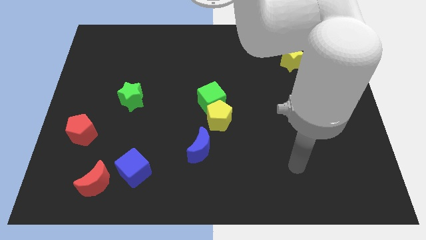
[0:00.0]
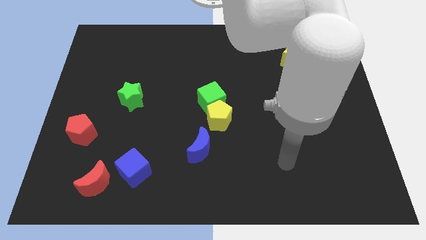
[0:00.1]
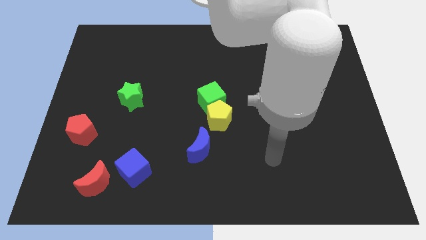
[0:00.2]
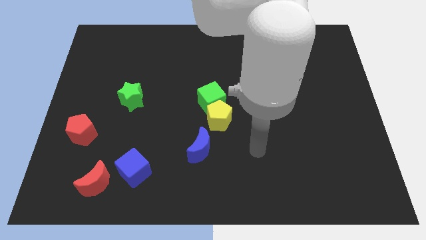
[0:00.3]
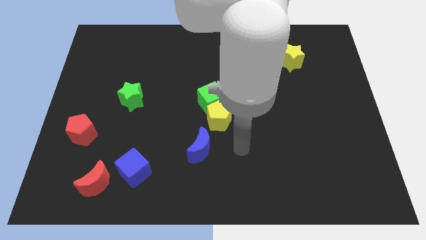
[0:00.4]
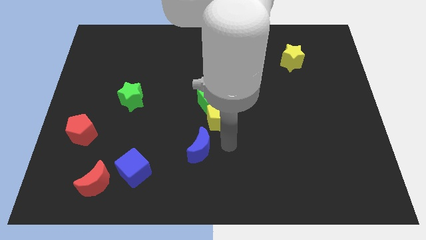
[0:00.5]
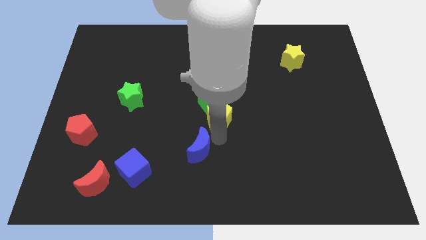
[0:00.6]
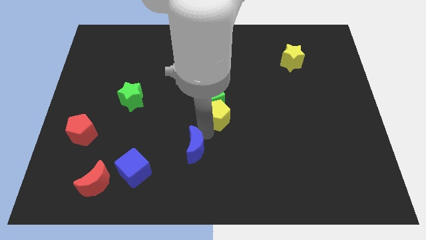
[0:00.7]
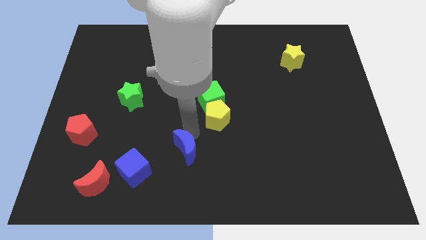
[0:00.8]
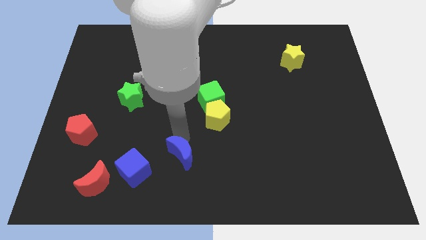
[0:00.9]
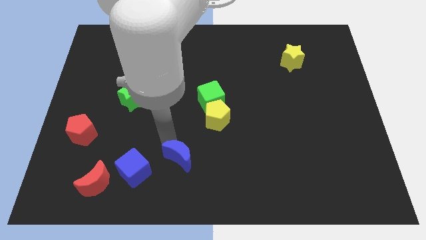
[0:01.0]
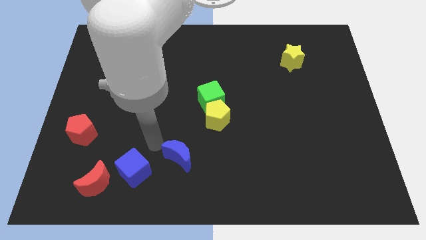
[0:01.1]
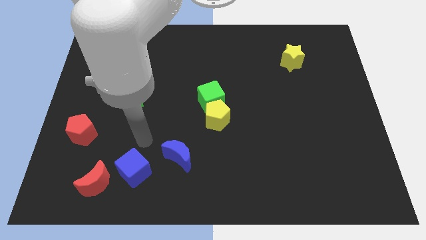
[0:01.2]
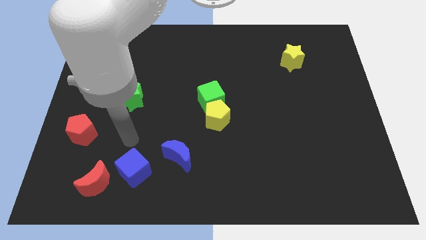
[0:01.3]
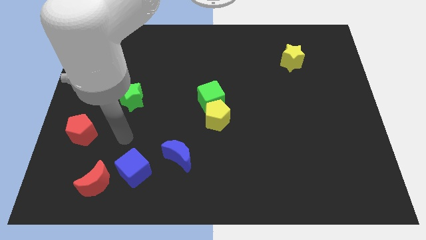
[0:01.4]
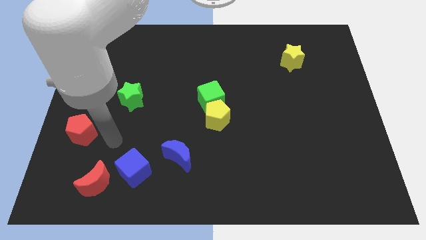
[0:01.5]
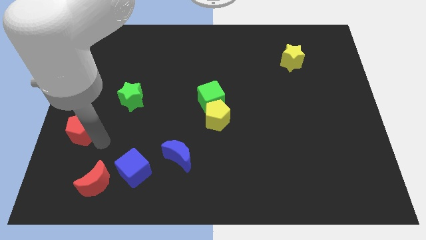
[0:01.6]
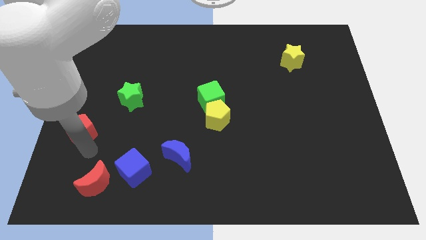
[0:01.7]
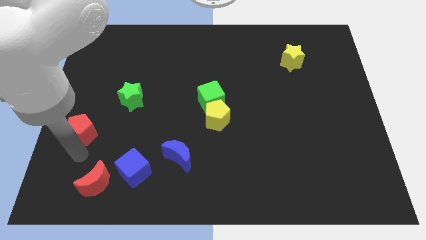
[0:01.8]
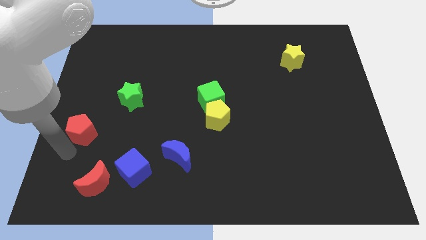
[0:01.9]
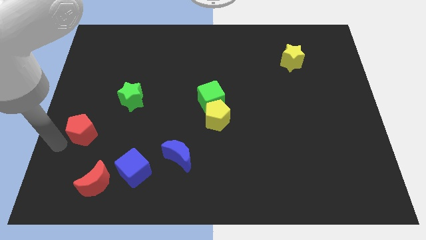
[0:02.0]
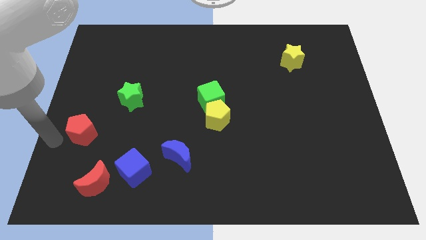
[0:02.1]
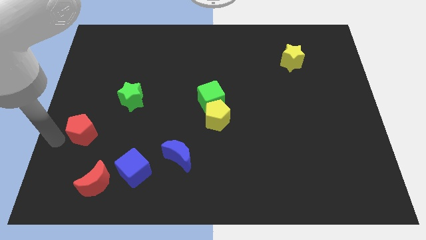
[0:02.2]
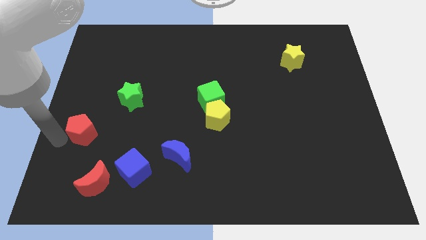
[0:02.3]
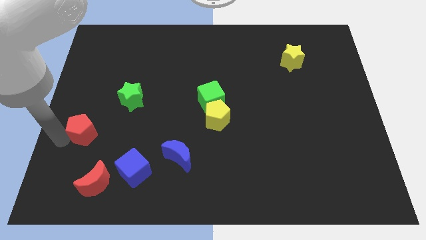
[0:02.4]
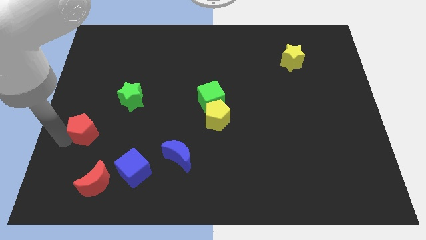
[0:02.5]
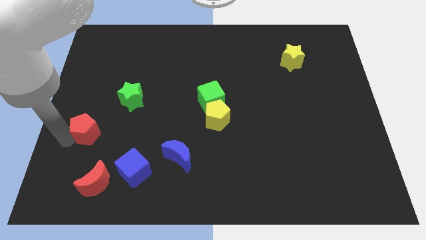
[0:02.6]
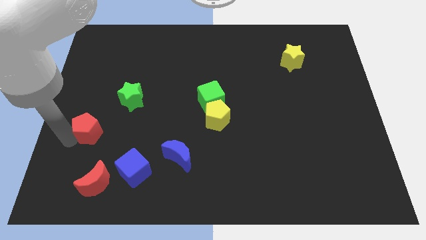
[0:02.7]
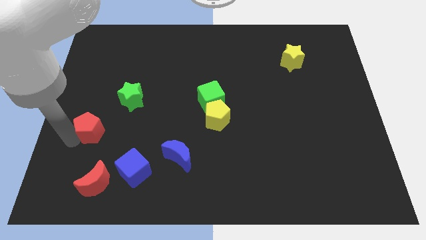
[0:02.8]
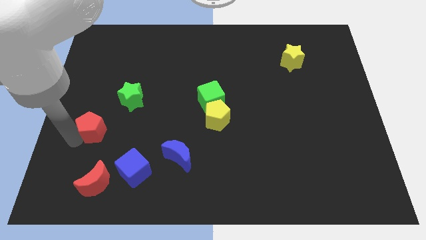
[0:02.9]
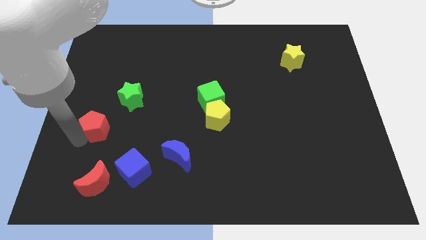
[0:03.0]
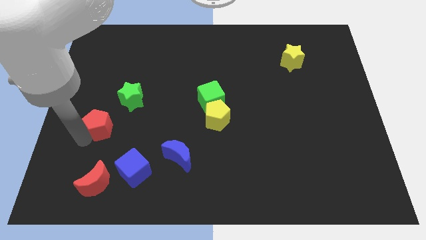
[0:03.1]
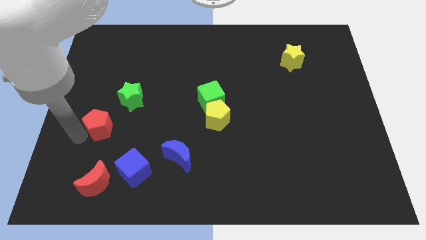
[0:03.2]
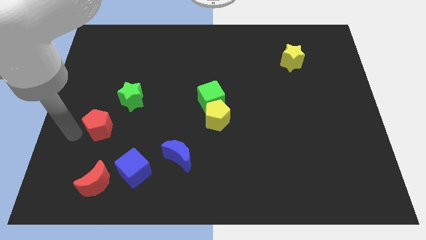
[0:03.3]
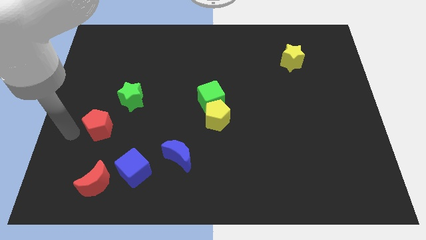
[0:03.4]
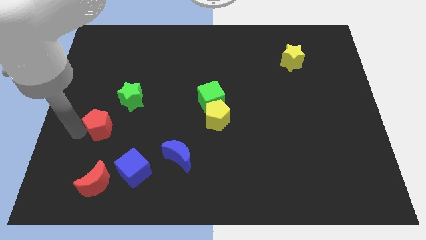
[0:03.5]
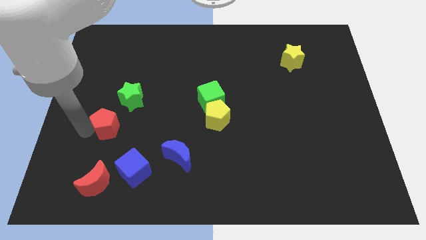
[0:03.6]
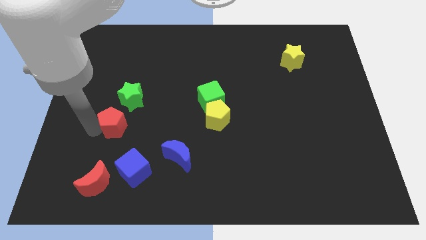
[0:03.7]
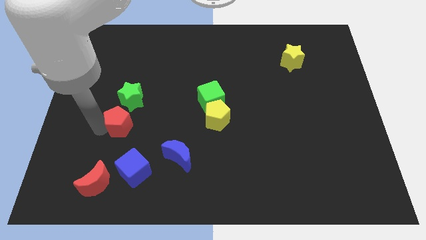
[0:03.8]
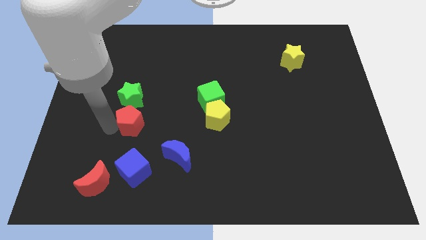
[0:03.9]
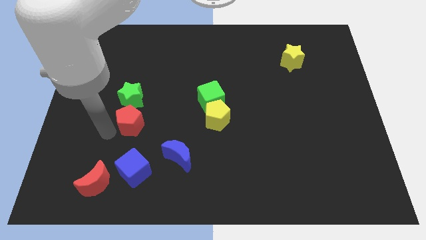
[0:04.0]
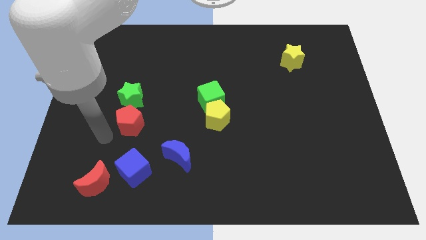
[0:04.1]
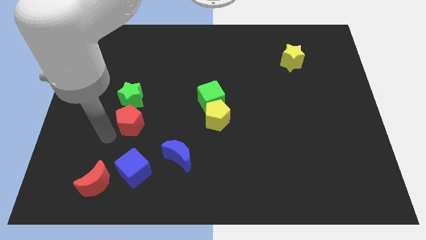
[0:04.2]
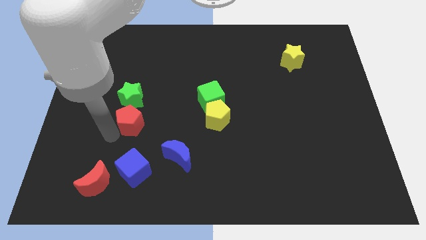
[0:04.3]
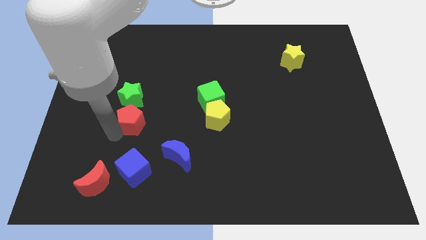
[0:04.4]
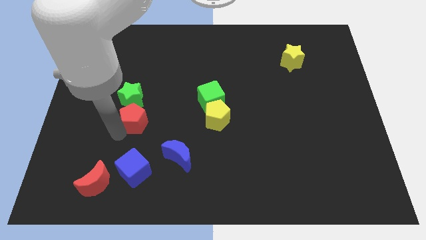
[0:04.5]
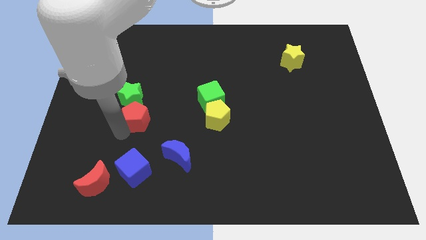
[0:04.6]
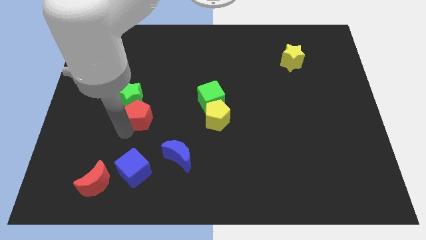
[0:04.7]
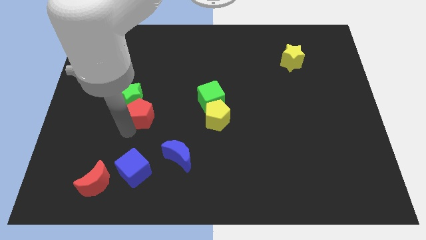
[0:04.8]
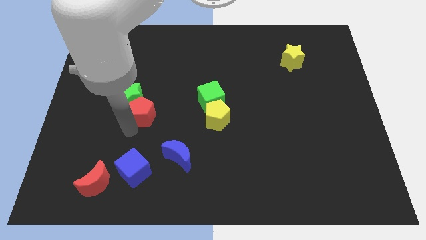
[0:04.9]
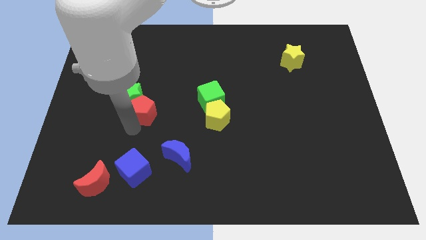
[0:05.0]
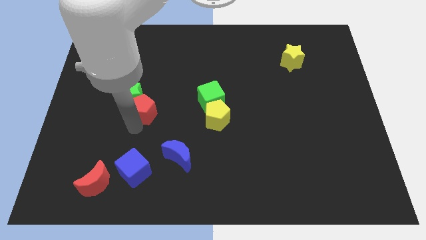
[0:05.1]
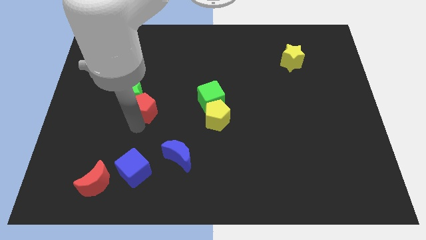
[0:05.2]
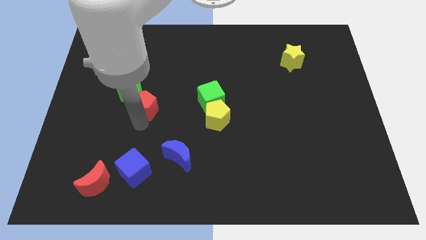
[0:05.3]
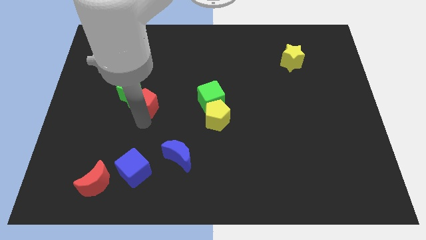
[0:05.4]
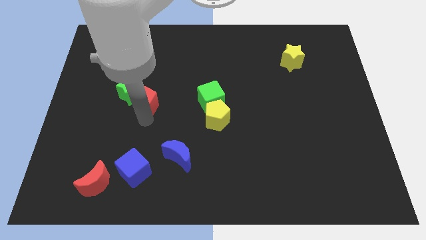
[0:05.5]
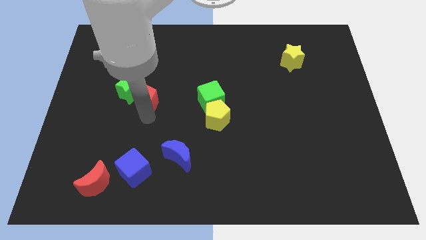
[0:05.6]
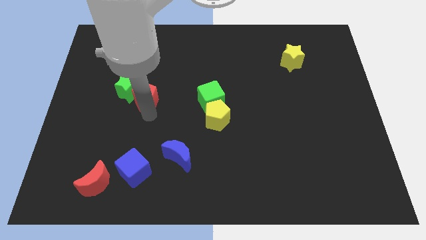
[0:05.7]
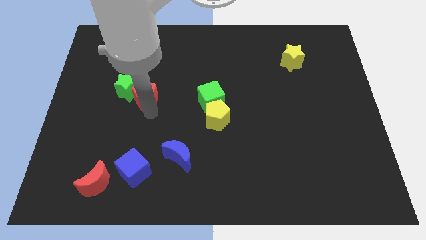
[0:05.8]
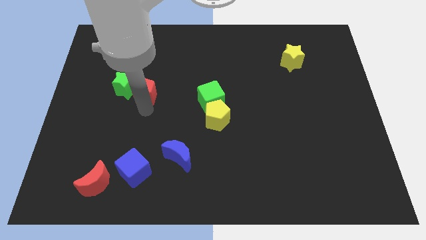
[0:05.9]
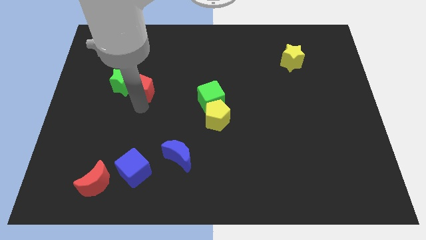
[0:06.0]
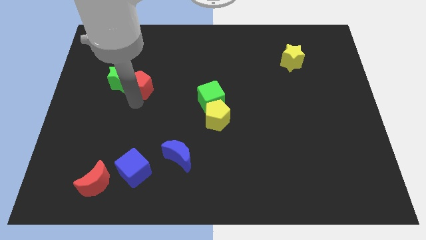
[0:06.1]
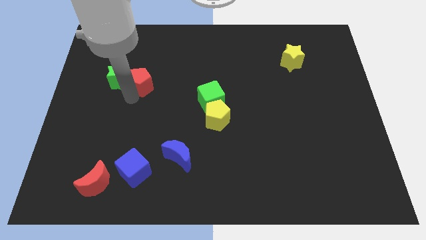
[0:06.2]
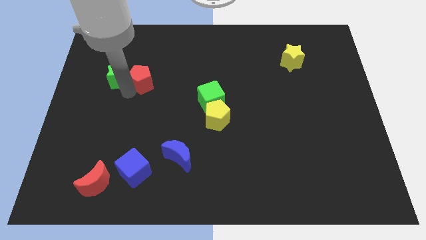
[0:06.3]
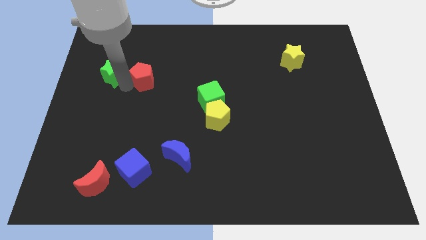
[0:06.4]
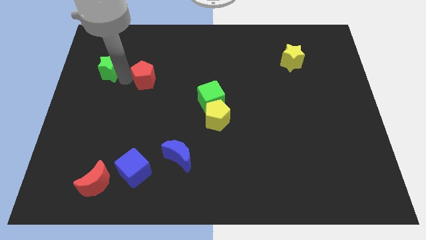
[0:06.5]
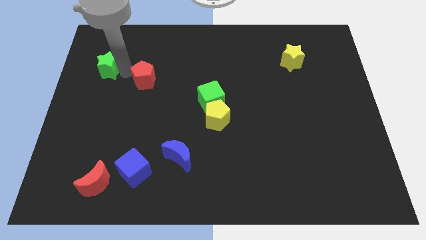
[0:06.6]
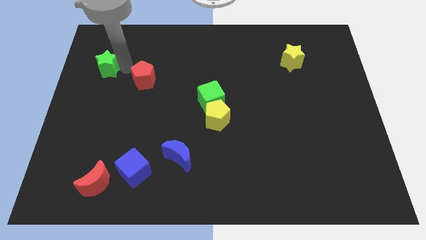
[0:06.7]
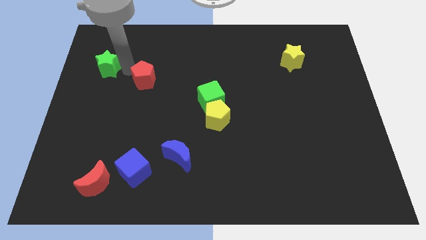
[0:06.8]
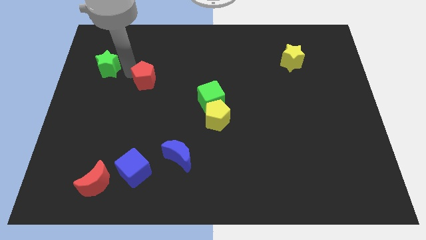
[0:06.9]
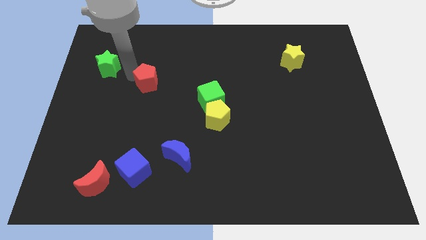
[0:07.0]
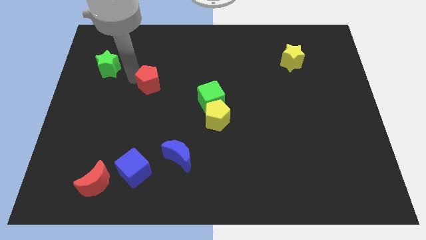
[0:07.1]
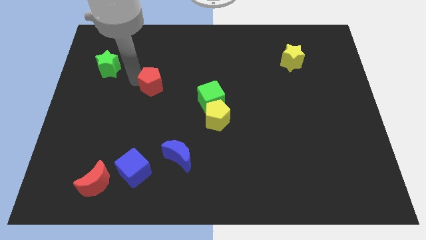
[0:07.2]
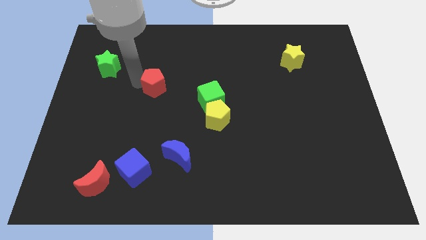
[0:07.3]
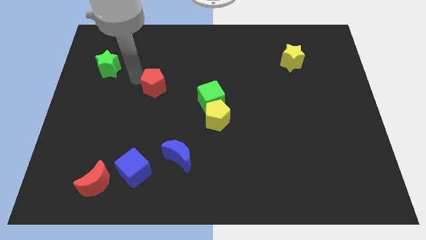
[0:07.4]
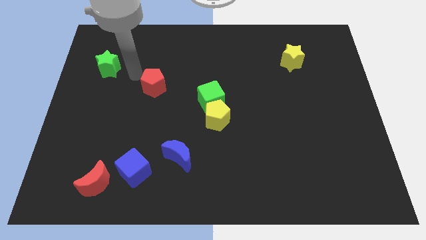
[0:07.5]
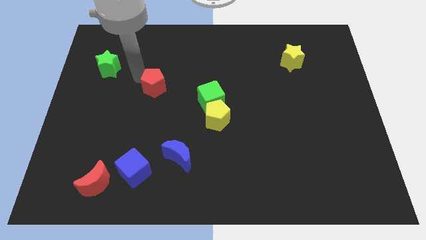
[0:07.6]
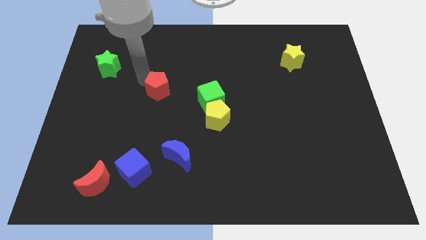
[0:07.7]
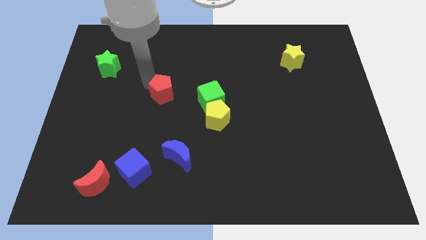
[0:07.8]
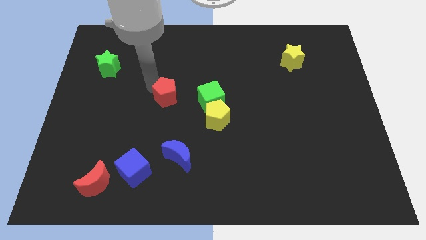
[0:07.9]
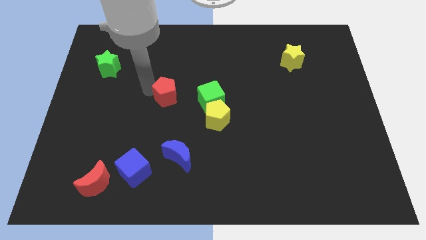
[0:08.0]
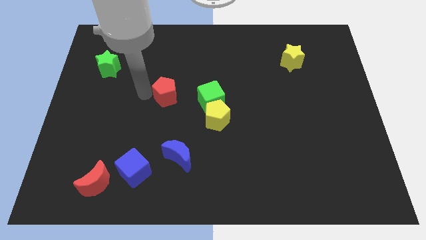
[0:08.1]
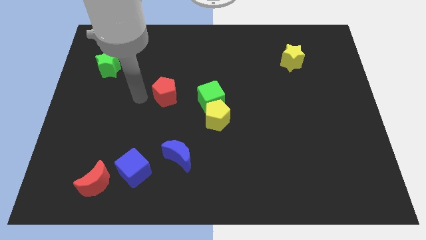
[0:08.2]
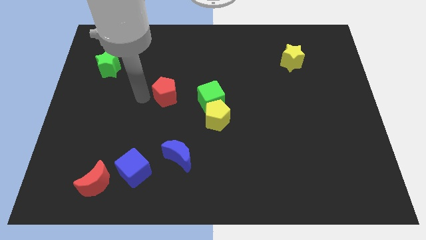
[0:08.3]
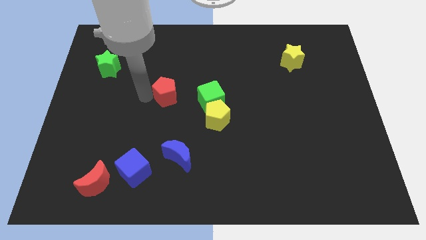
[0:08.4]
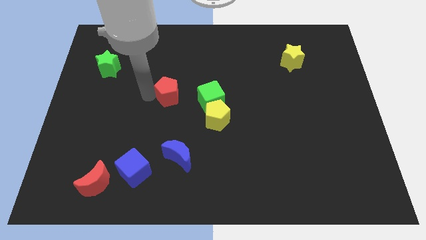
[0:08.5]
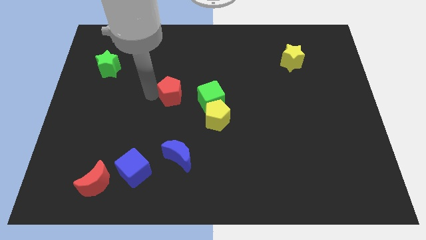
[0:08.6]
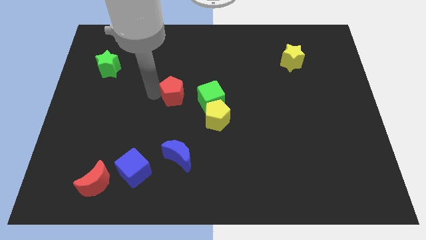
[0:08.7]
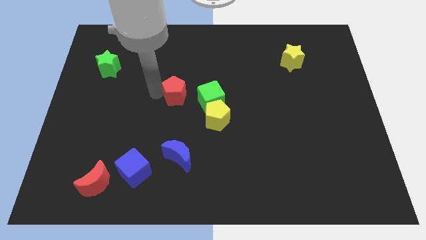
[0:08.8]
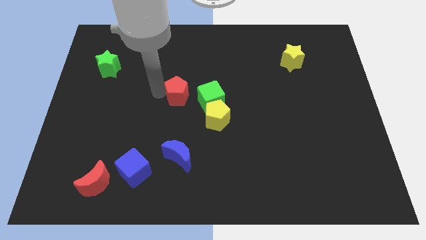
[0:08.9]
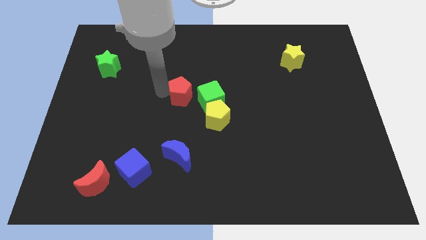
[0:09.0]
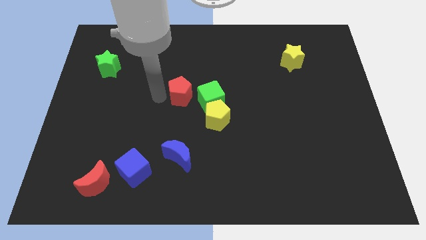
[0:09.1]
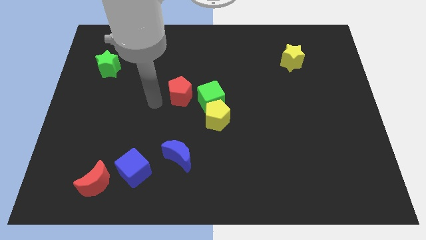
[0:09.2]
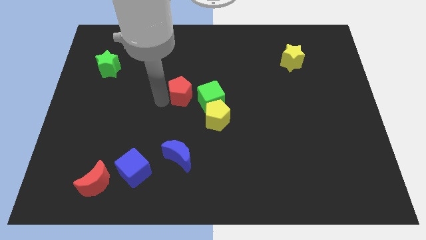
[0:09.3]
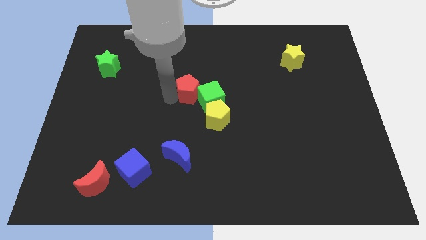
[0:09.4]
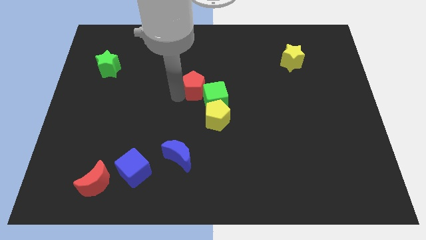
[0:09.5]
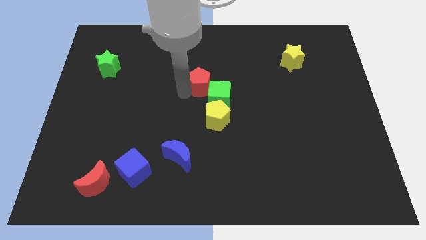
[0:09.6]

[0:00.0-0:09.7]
put the red pentagon to the top side of the yellow pentagon
